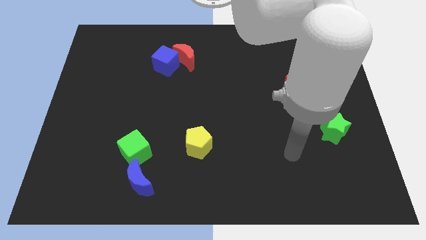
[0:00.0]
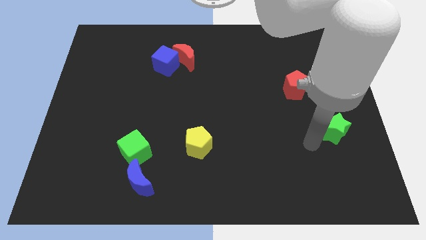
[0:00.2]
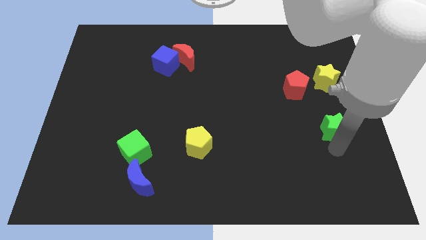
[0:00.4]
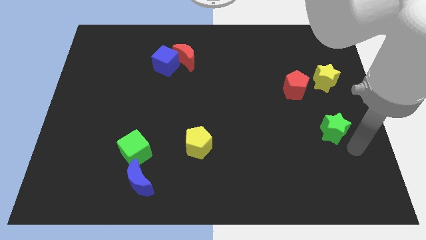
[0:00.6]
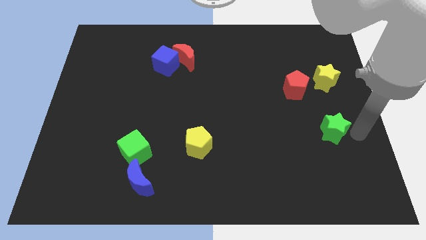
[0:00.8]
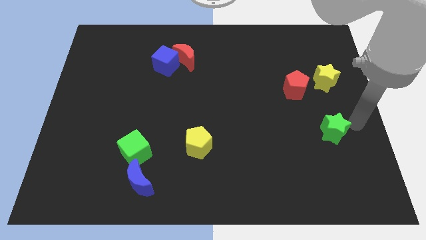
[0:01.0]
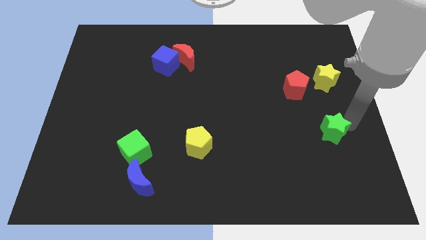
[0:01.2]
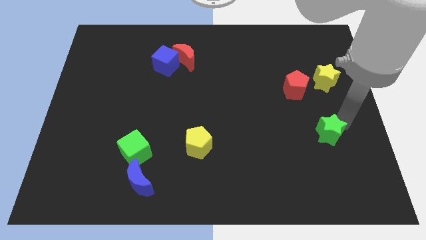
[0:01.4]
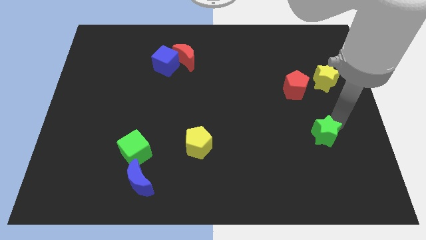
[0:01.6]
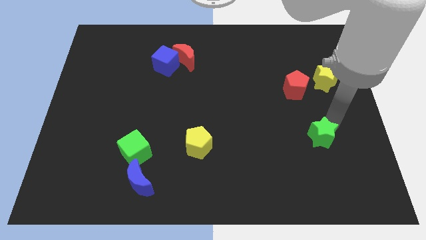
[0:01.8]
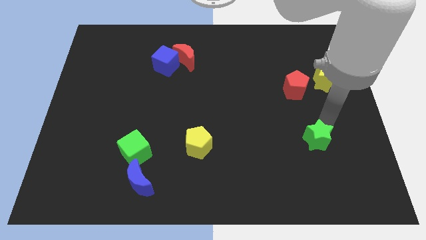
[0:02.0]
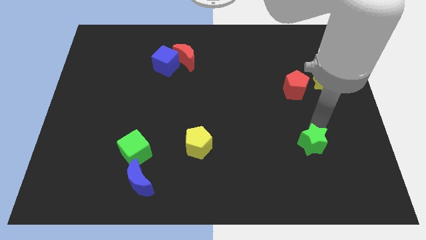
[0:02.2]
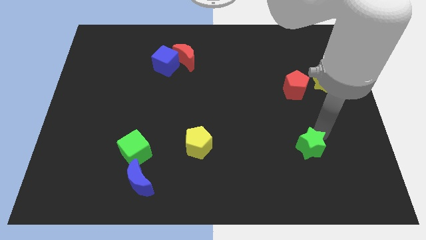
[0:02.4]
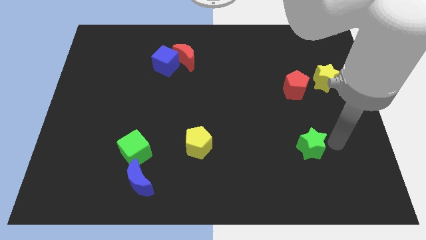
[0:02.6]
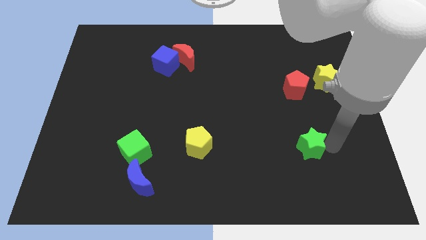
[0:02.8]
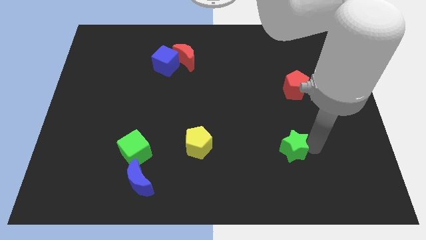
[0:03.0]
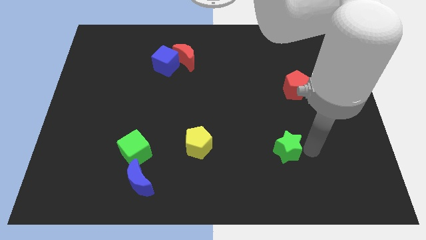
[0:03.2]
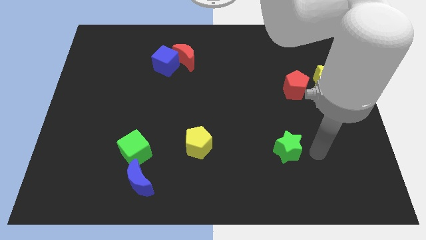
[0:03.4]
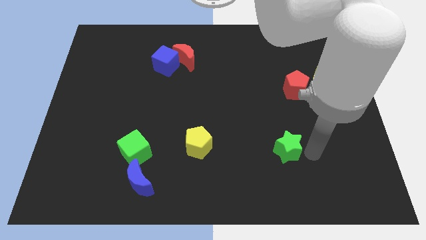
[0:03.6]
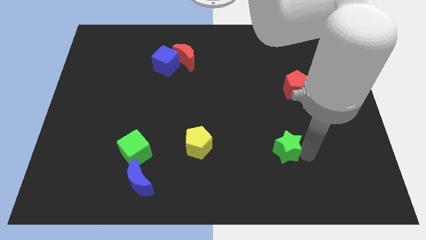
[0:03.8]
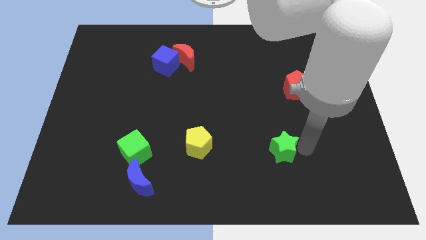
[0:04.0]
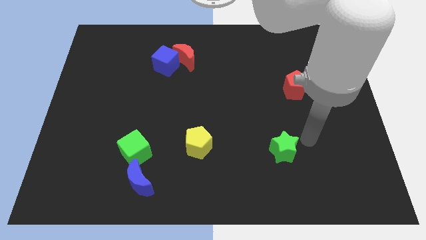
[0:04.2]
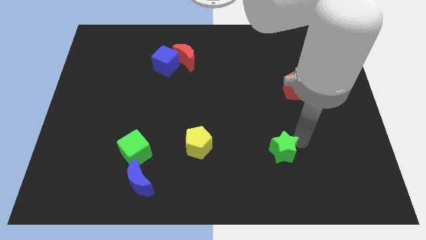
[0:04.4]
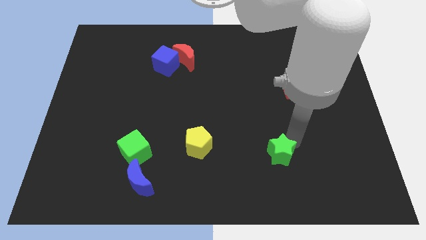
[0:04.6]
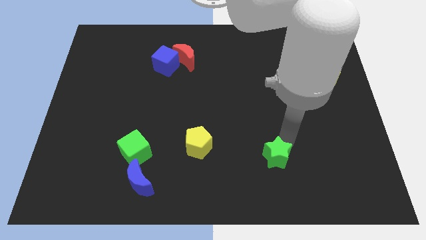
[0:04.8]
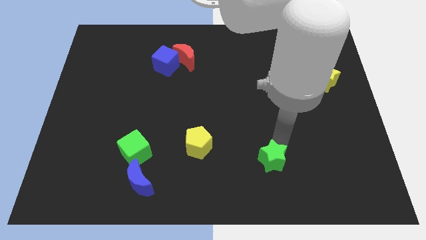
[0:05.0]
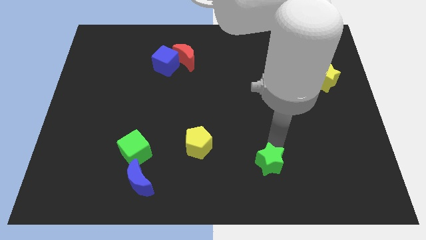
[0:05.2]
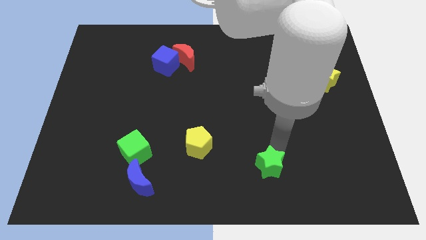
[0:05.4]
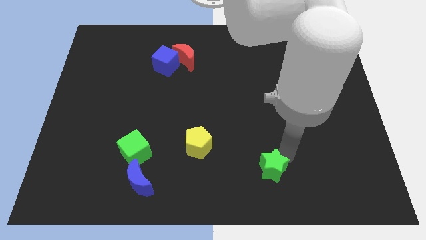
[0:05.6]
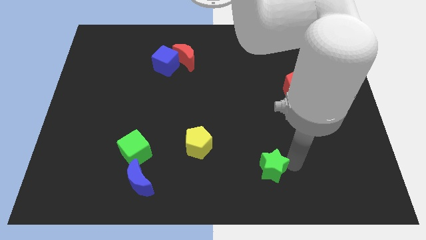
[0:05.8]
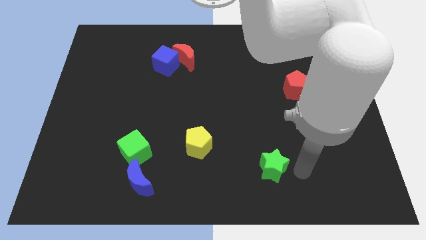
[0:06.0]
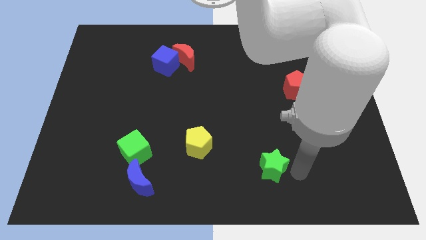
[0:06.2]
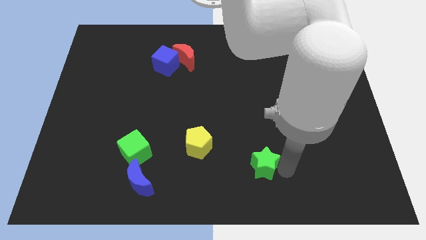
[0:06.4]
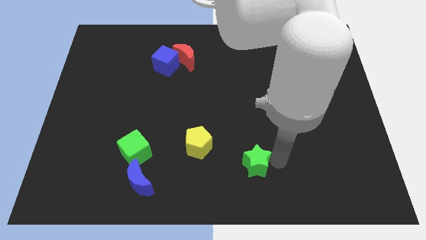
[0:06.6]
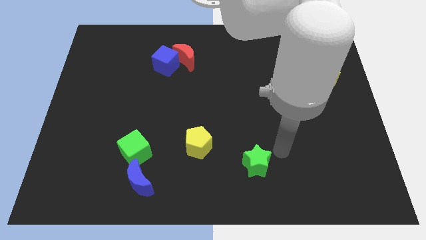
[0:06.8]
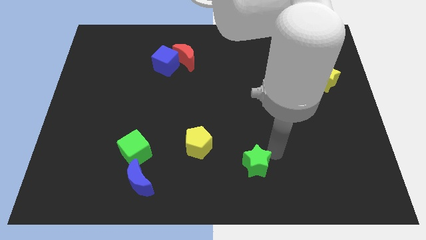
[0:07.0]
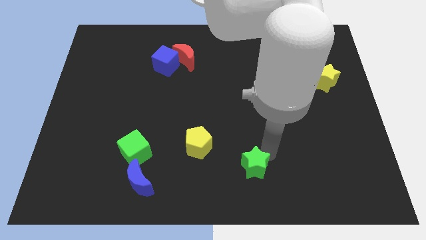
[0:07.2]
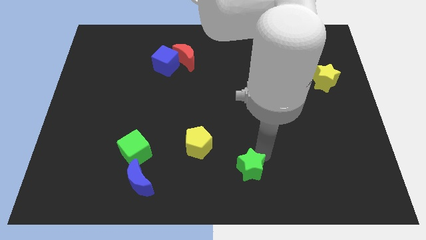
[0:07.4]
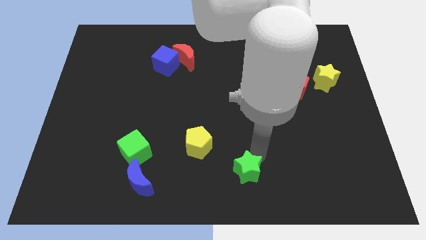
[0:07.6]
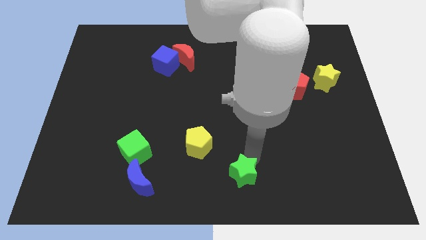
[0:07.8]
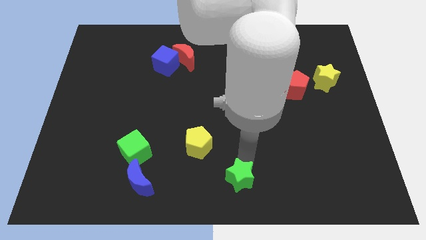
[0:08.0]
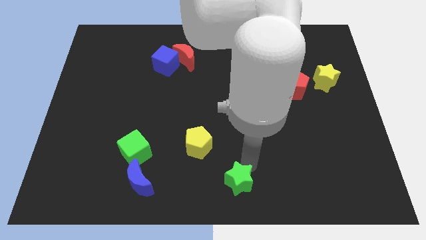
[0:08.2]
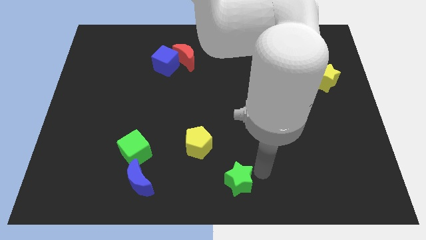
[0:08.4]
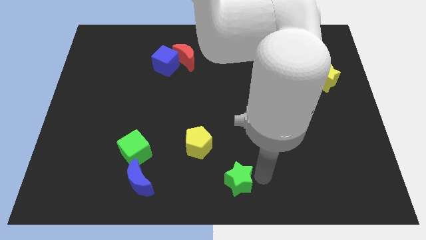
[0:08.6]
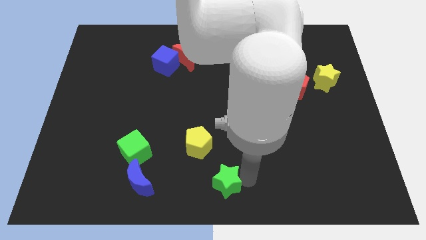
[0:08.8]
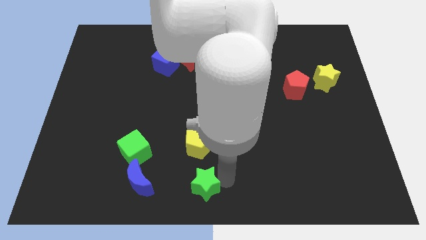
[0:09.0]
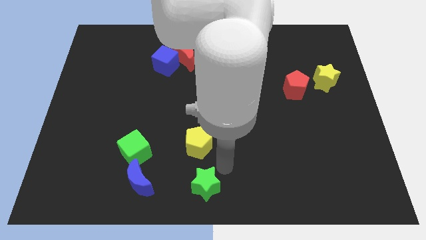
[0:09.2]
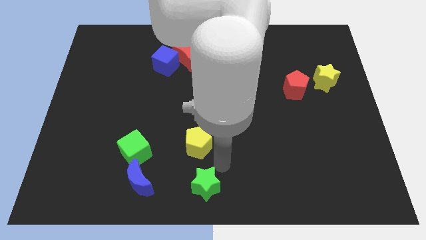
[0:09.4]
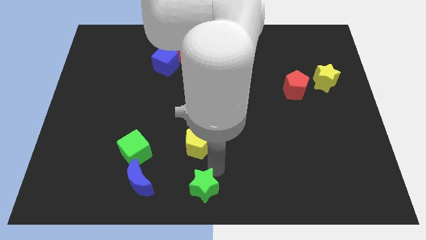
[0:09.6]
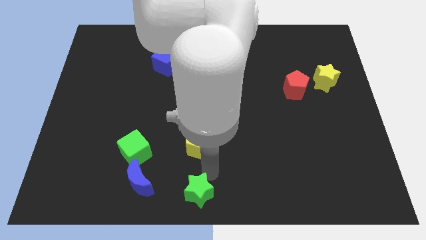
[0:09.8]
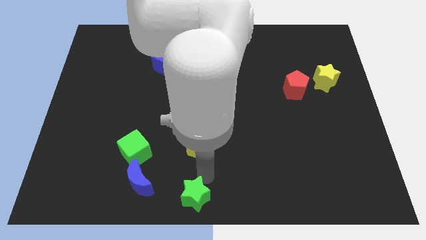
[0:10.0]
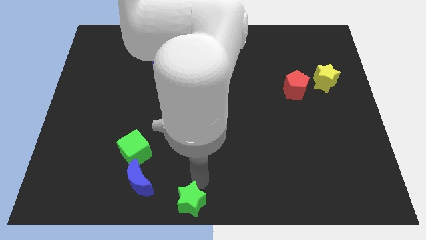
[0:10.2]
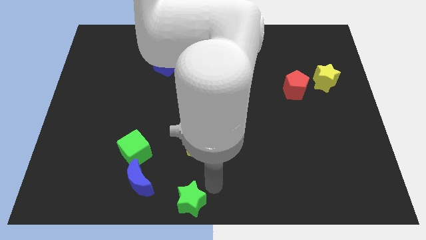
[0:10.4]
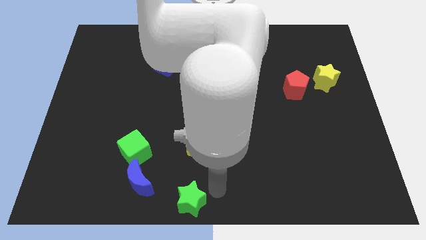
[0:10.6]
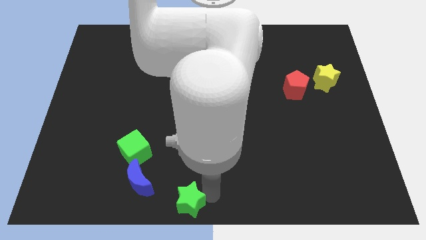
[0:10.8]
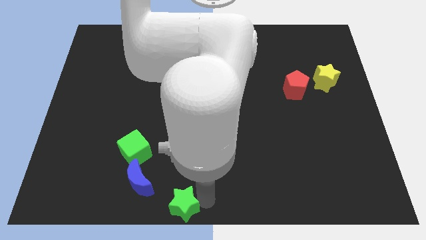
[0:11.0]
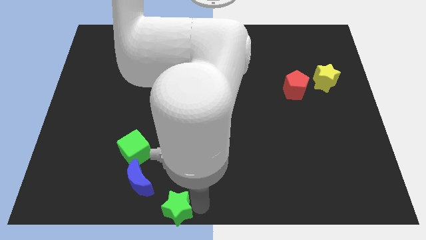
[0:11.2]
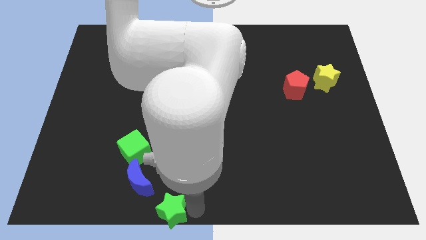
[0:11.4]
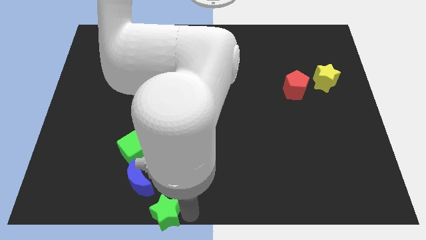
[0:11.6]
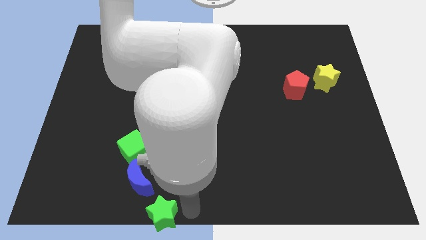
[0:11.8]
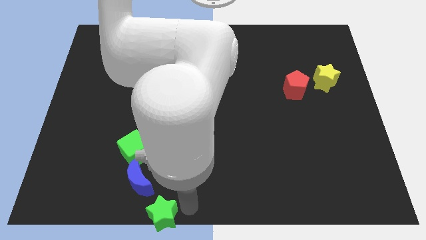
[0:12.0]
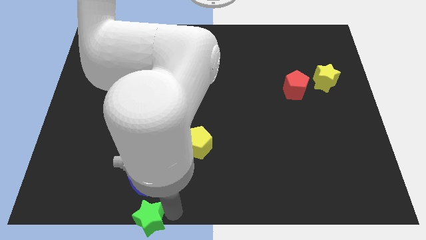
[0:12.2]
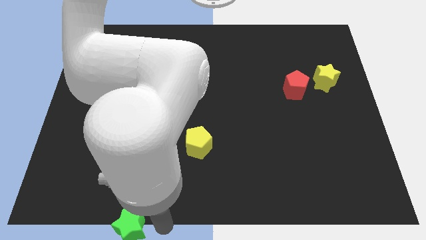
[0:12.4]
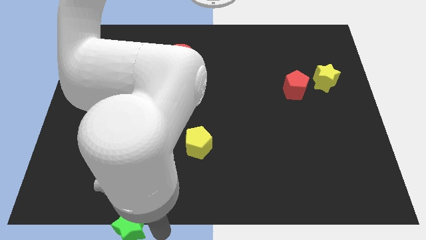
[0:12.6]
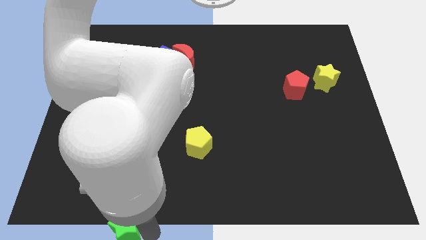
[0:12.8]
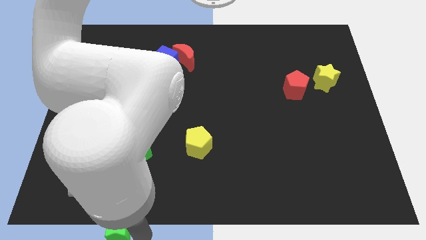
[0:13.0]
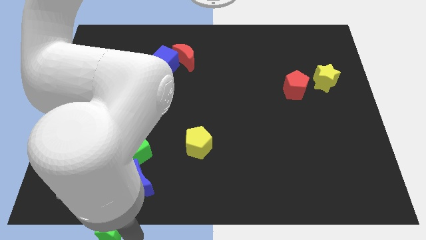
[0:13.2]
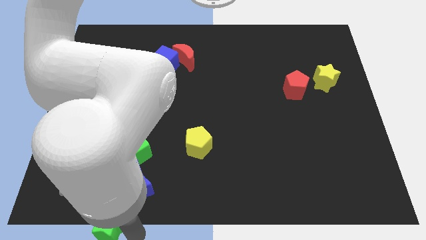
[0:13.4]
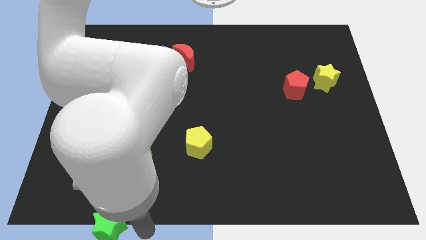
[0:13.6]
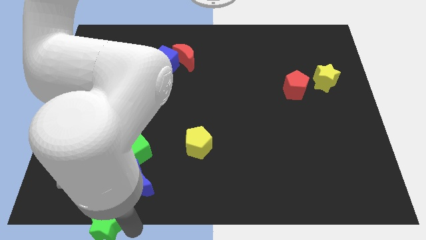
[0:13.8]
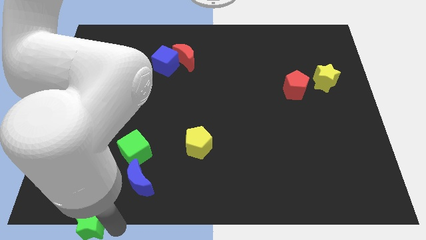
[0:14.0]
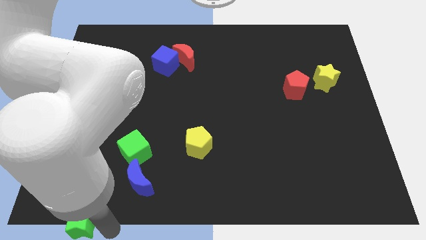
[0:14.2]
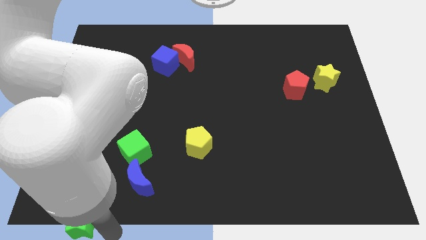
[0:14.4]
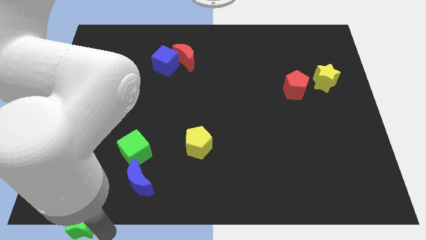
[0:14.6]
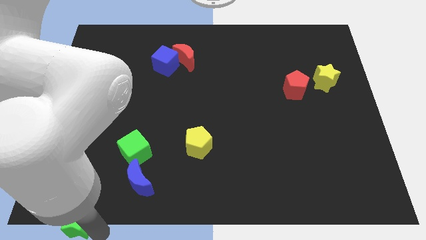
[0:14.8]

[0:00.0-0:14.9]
slide the green star to the bottom left corner
